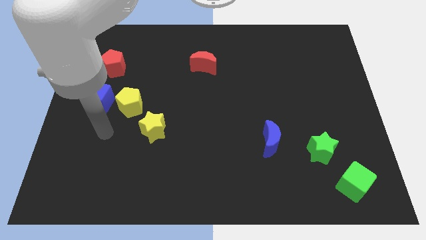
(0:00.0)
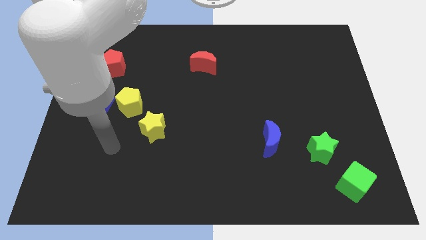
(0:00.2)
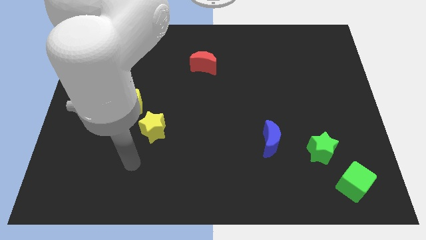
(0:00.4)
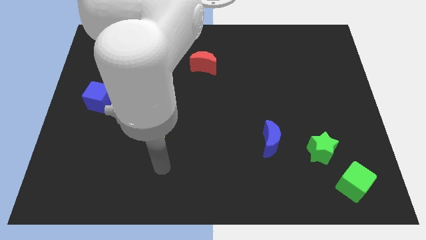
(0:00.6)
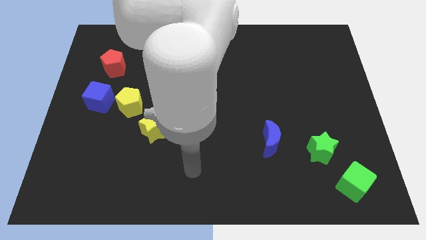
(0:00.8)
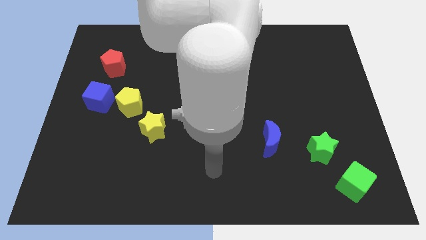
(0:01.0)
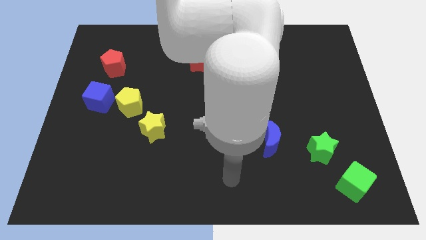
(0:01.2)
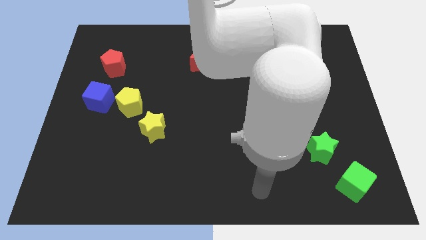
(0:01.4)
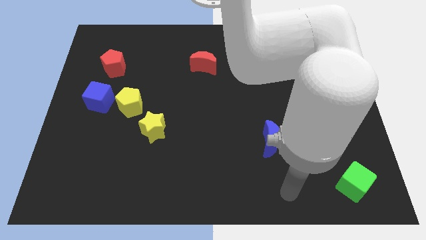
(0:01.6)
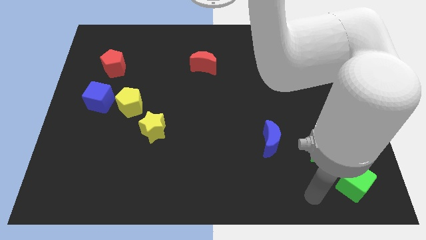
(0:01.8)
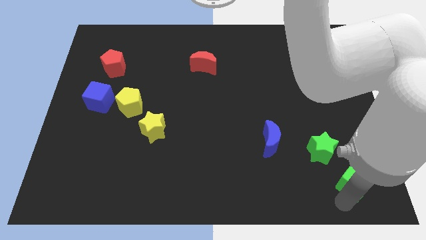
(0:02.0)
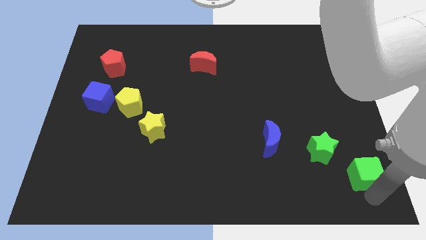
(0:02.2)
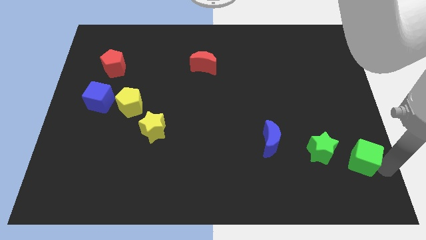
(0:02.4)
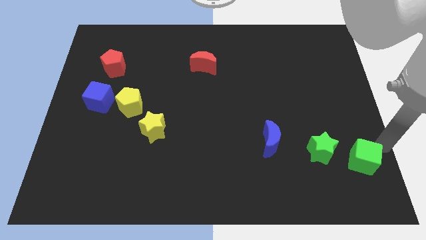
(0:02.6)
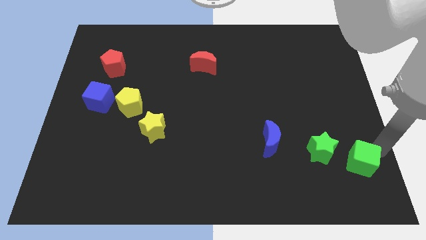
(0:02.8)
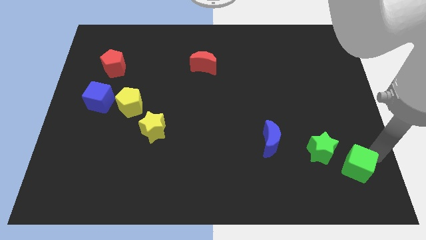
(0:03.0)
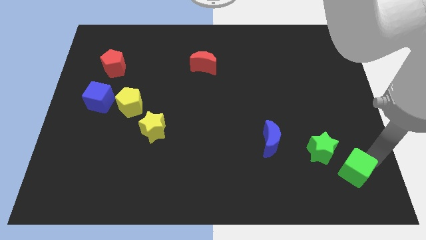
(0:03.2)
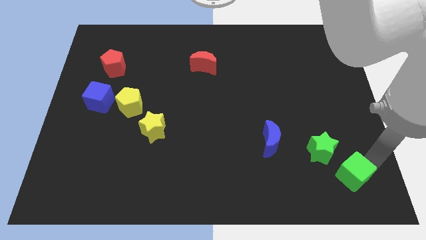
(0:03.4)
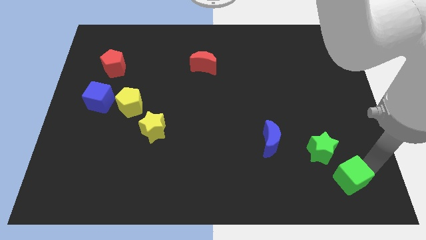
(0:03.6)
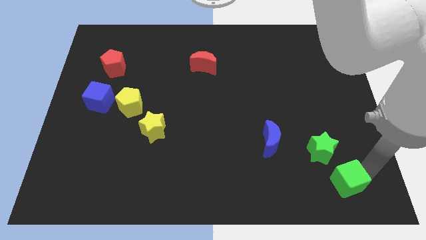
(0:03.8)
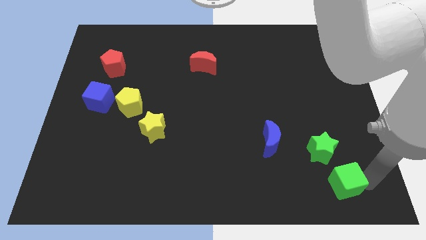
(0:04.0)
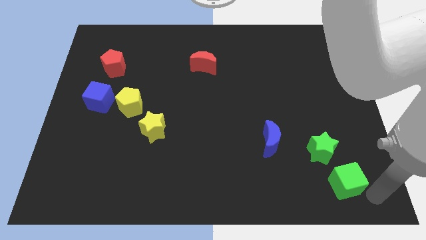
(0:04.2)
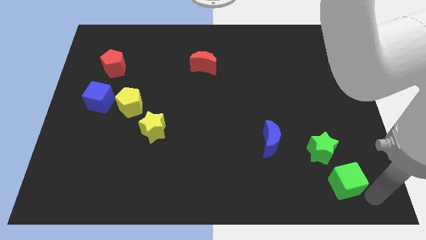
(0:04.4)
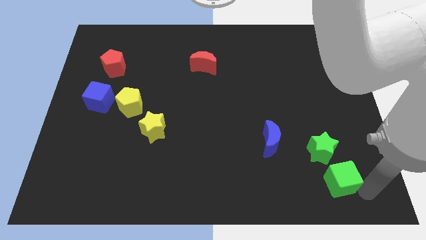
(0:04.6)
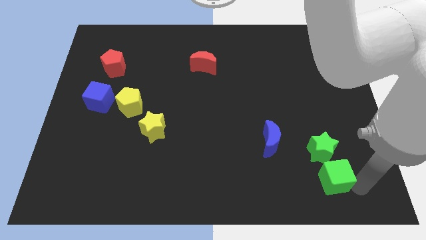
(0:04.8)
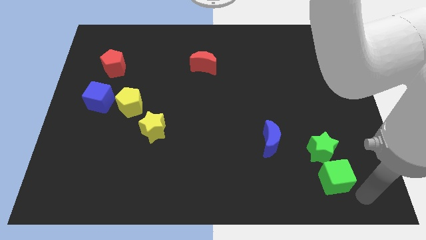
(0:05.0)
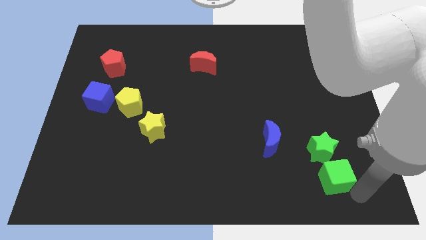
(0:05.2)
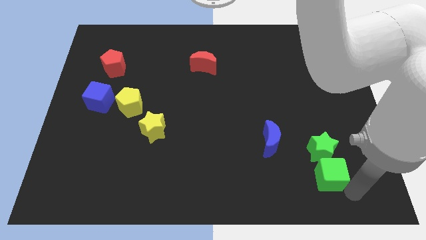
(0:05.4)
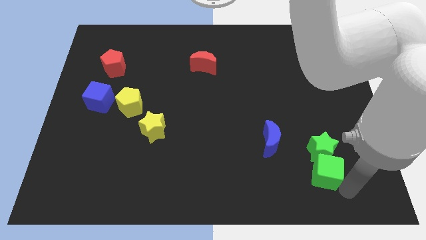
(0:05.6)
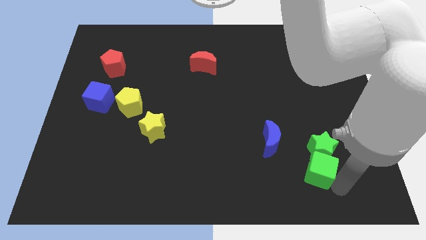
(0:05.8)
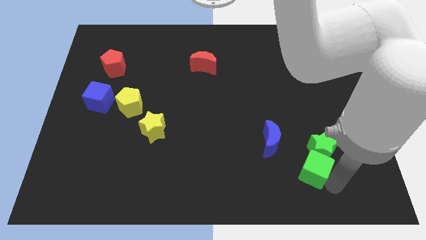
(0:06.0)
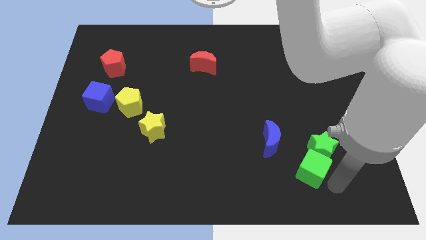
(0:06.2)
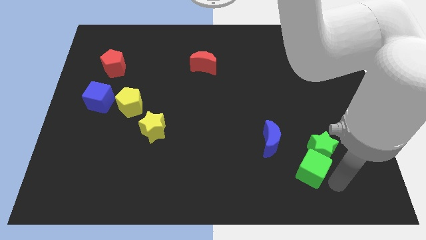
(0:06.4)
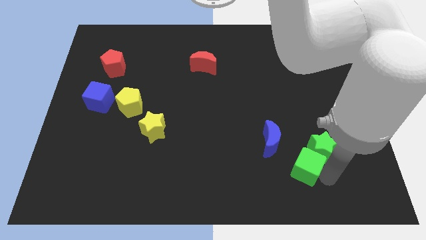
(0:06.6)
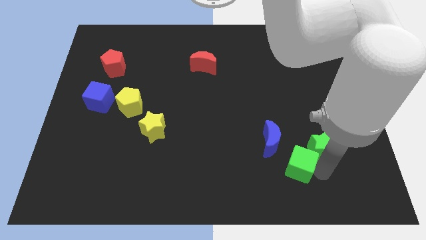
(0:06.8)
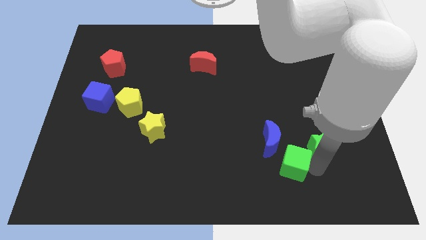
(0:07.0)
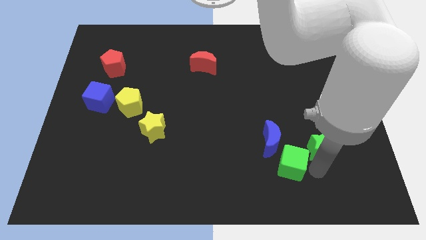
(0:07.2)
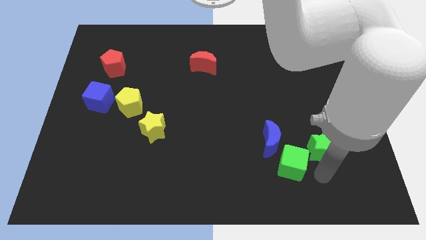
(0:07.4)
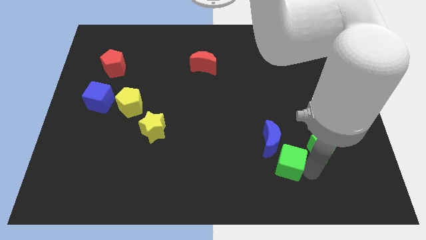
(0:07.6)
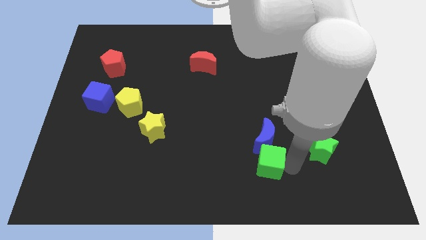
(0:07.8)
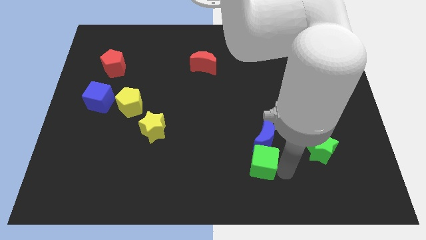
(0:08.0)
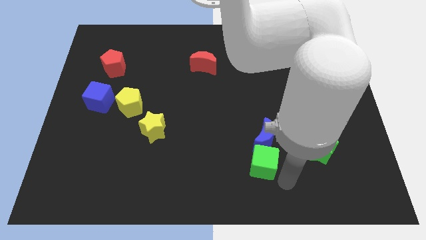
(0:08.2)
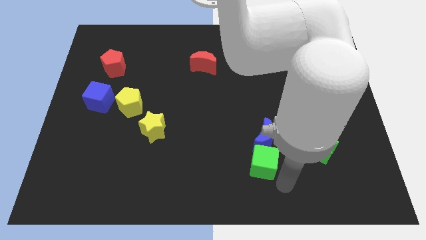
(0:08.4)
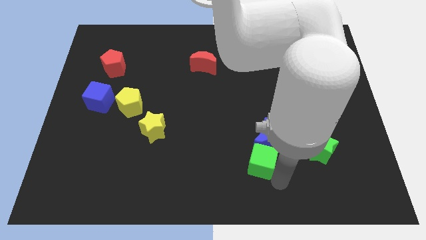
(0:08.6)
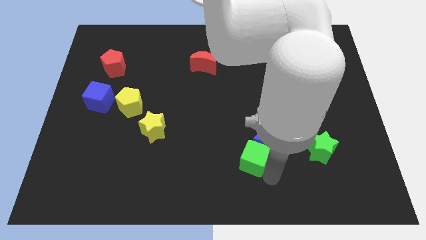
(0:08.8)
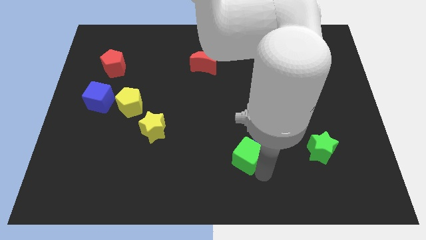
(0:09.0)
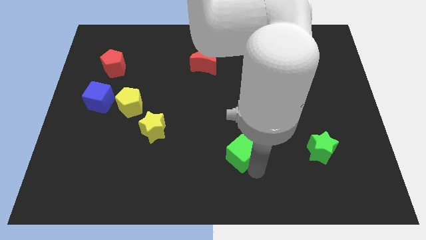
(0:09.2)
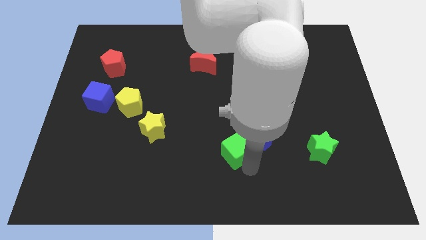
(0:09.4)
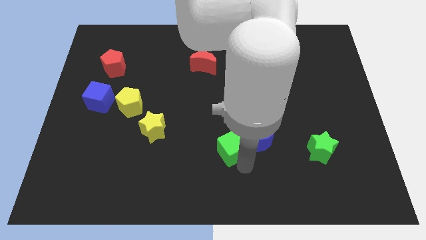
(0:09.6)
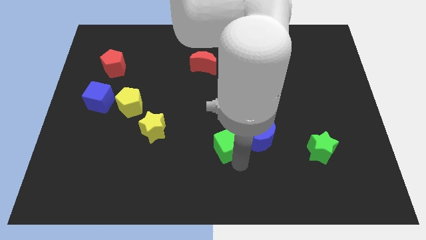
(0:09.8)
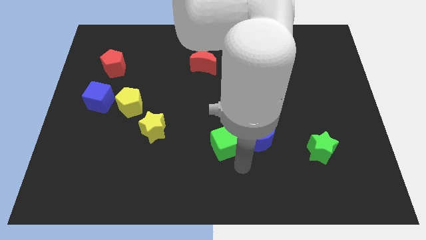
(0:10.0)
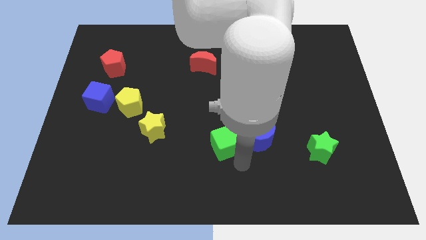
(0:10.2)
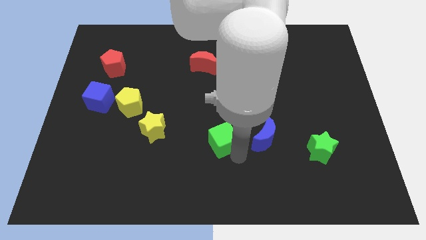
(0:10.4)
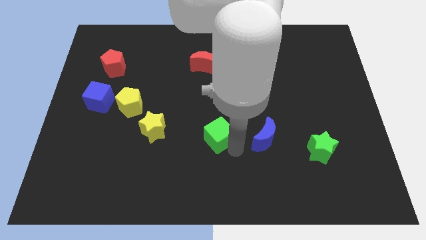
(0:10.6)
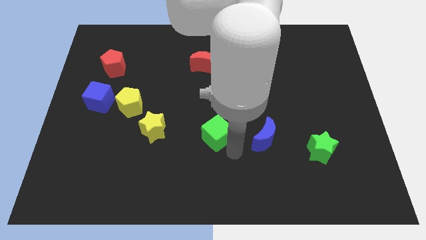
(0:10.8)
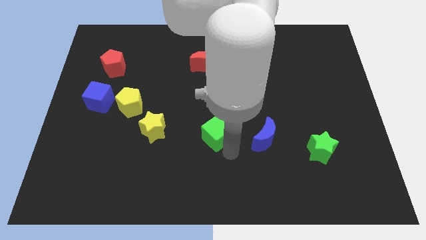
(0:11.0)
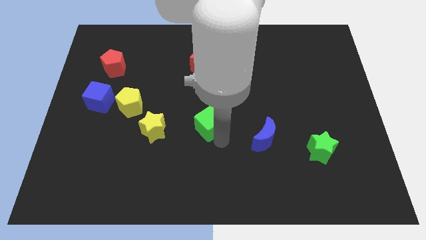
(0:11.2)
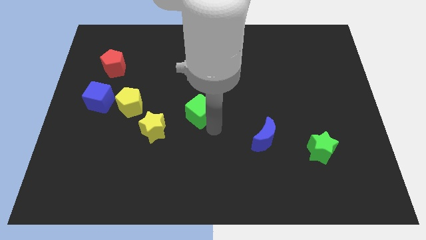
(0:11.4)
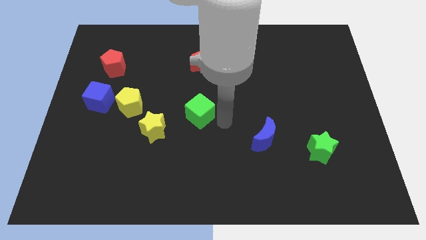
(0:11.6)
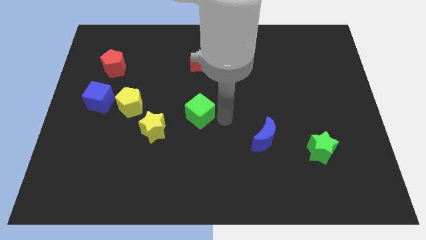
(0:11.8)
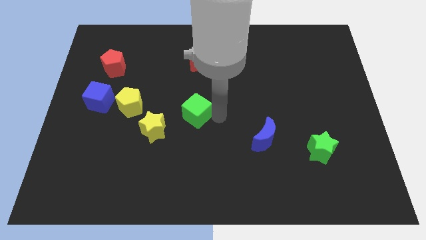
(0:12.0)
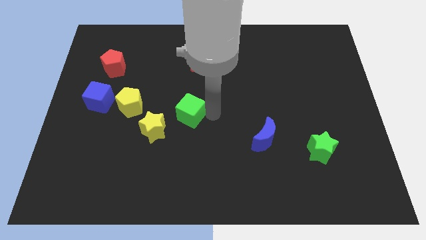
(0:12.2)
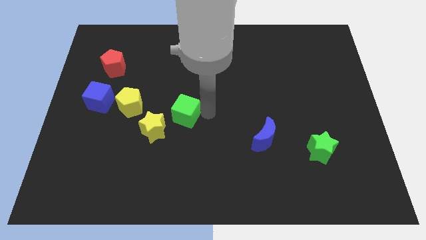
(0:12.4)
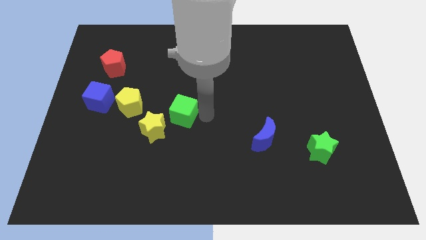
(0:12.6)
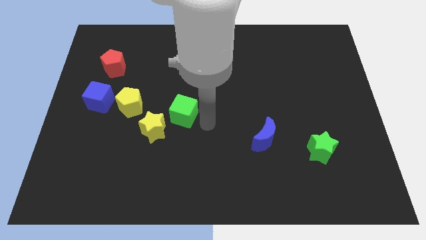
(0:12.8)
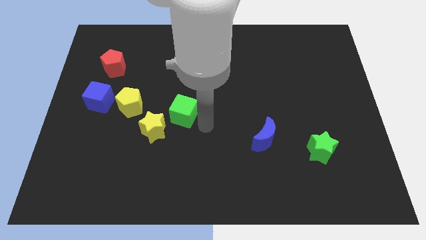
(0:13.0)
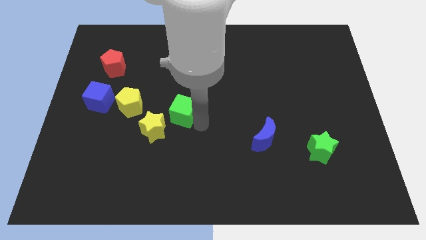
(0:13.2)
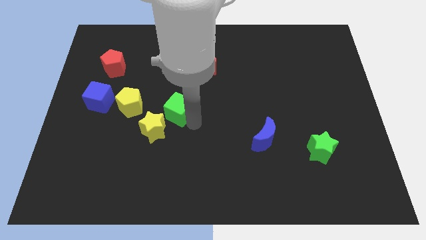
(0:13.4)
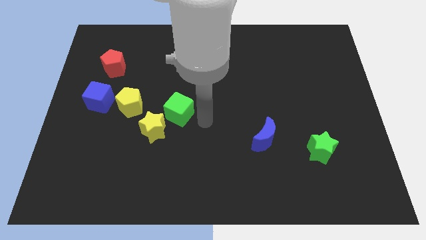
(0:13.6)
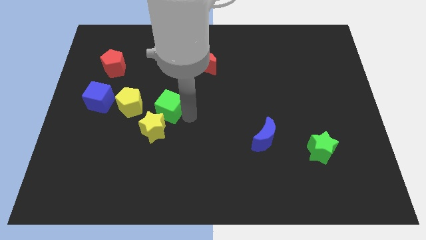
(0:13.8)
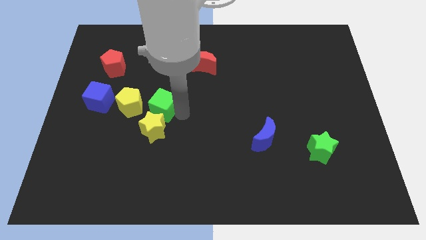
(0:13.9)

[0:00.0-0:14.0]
move the green cube to the right side of the blue cube
